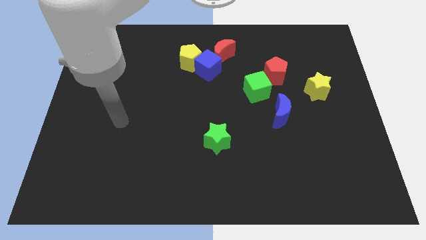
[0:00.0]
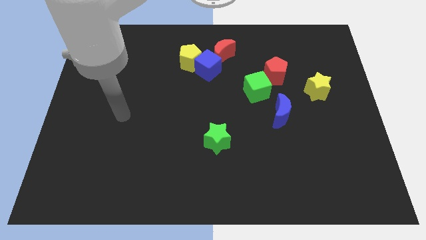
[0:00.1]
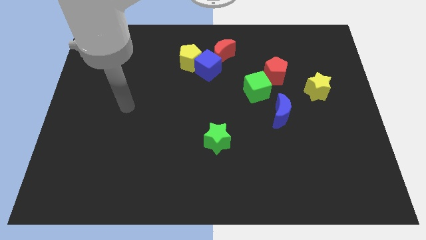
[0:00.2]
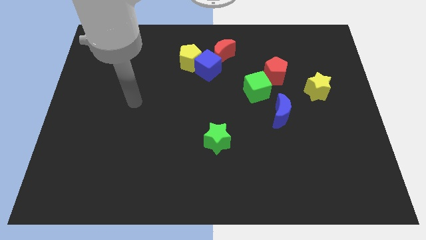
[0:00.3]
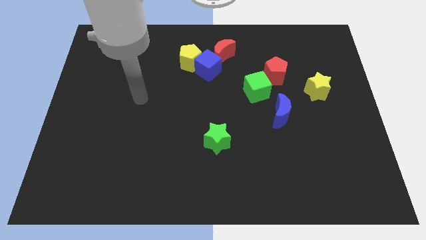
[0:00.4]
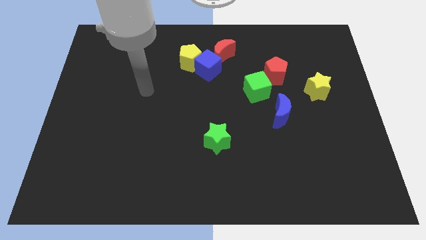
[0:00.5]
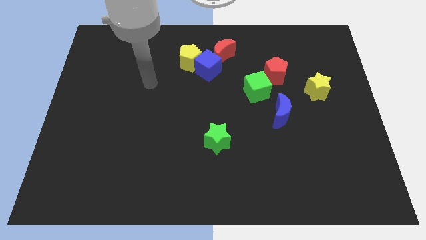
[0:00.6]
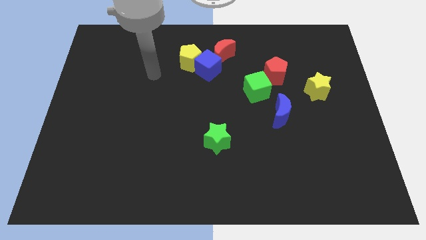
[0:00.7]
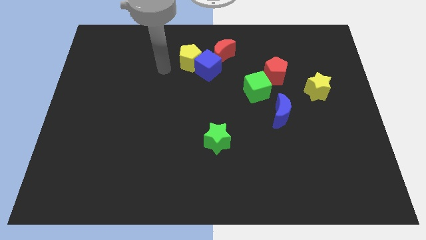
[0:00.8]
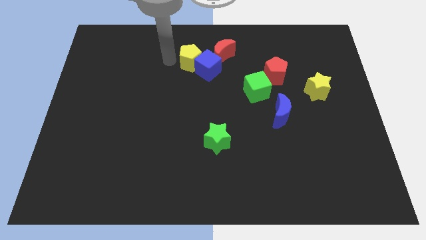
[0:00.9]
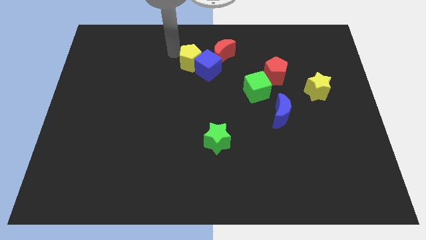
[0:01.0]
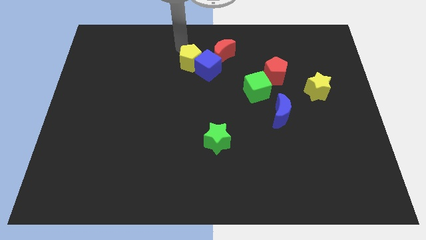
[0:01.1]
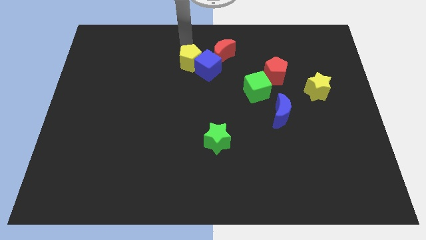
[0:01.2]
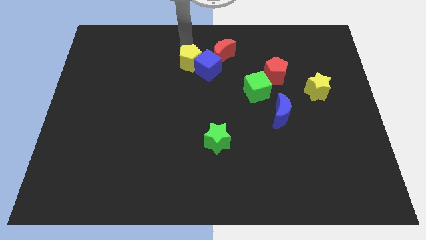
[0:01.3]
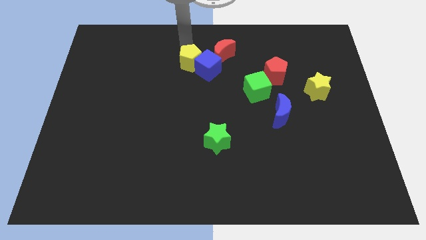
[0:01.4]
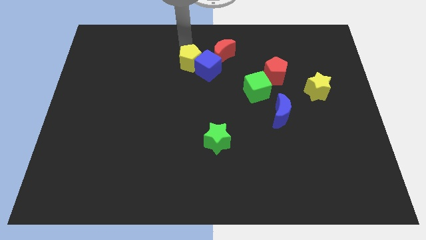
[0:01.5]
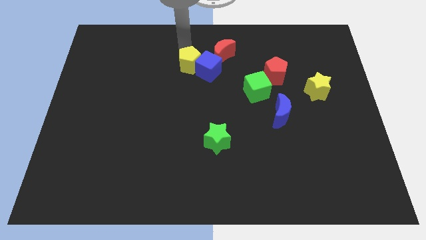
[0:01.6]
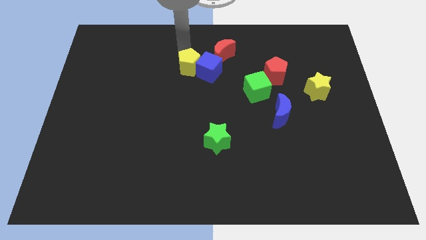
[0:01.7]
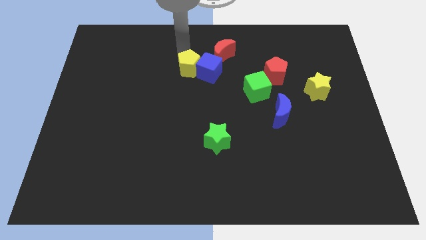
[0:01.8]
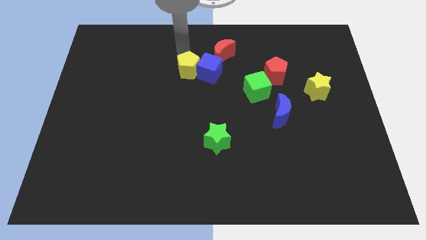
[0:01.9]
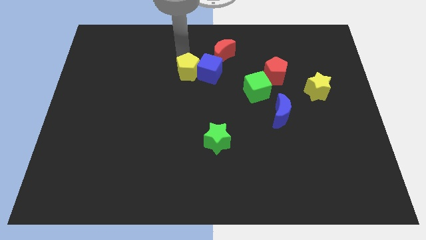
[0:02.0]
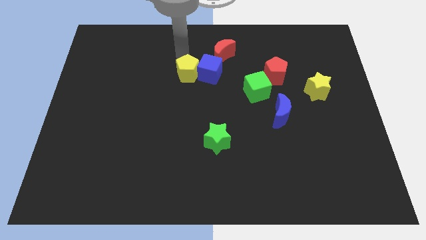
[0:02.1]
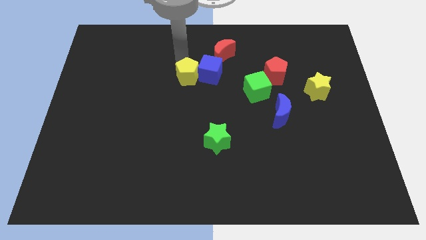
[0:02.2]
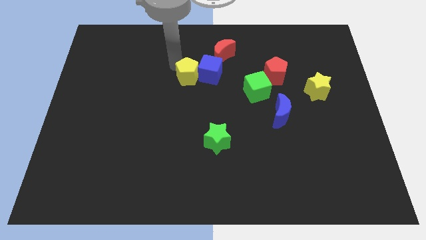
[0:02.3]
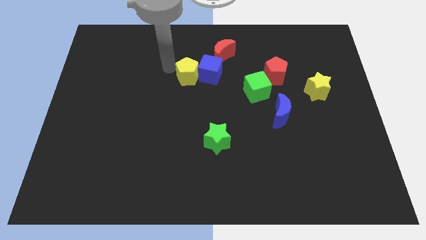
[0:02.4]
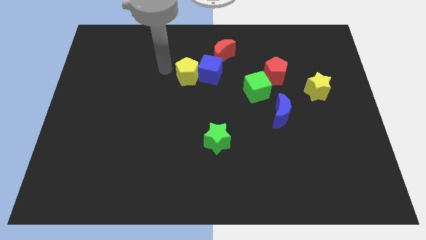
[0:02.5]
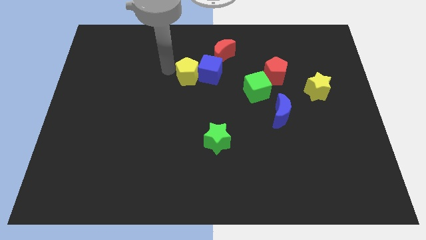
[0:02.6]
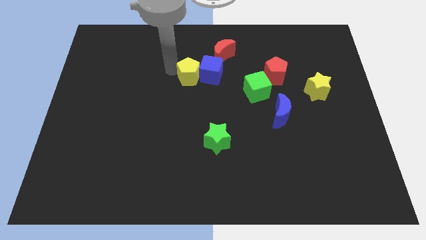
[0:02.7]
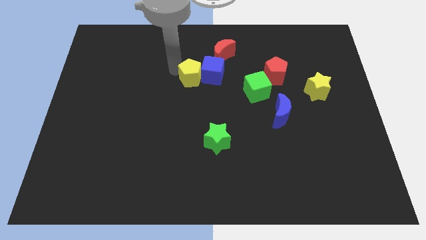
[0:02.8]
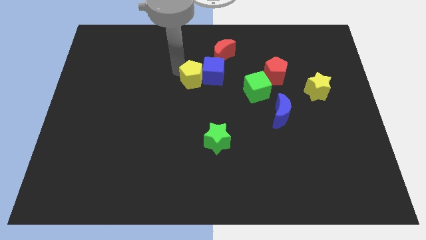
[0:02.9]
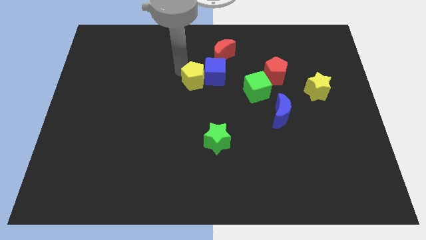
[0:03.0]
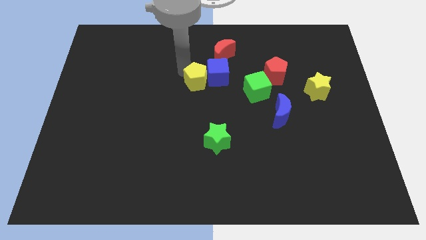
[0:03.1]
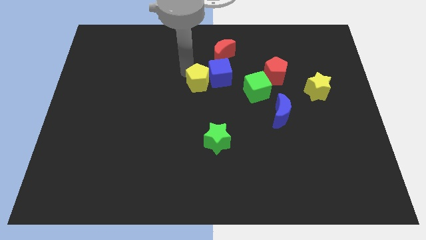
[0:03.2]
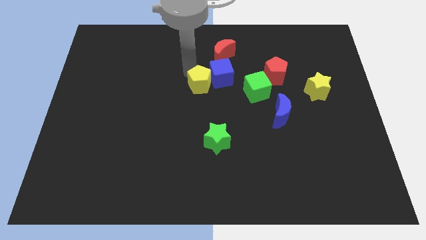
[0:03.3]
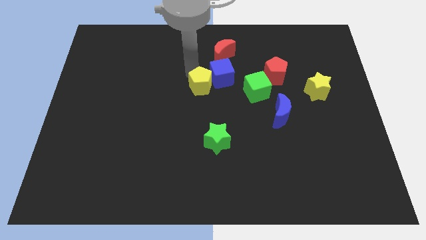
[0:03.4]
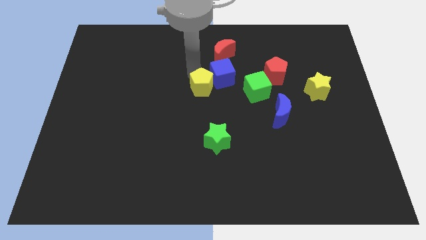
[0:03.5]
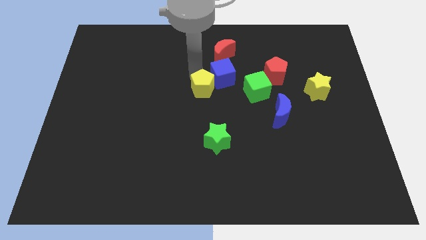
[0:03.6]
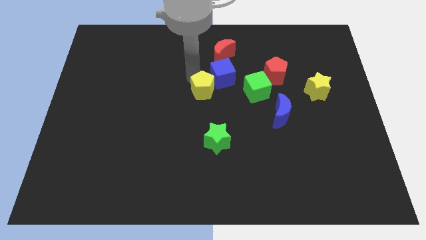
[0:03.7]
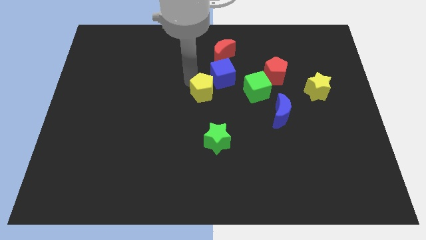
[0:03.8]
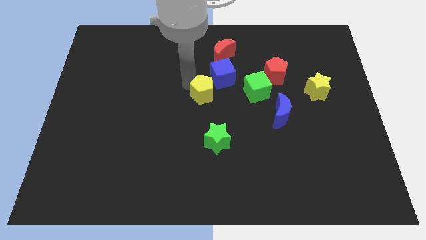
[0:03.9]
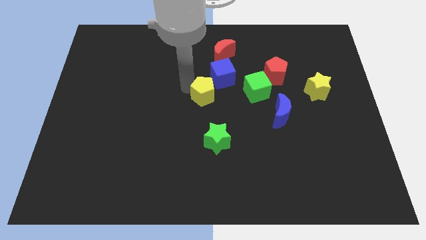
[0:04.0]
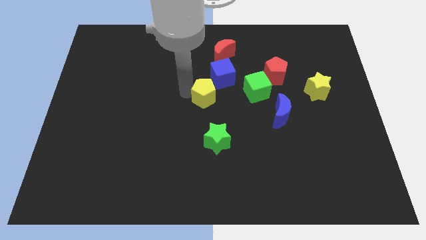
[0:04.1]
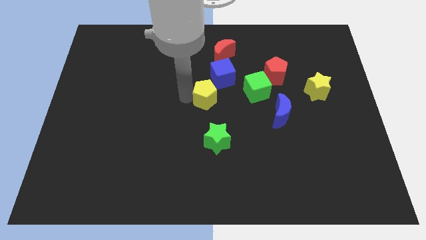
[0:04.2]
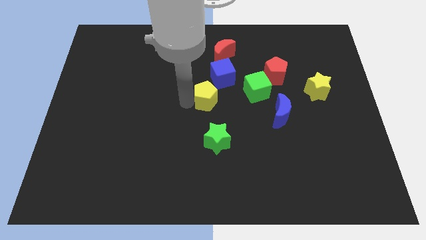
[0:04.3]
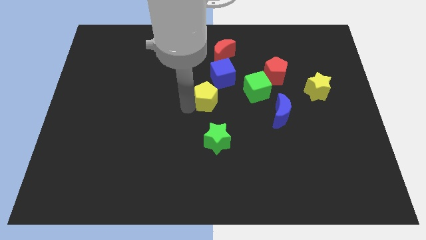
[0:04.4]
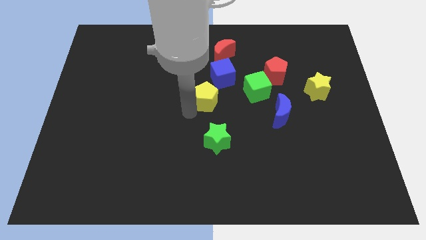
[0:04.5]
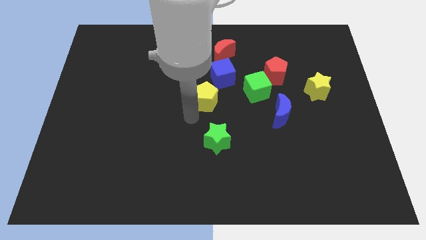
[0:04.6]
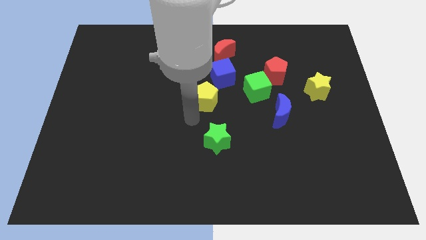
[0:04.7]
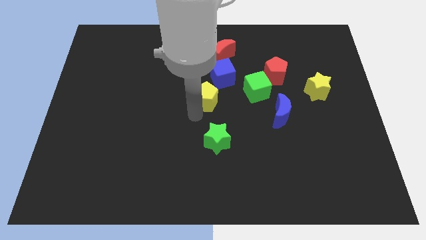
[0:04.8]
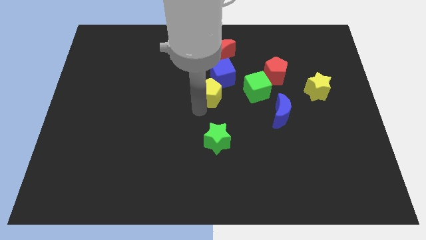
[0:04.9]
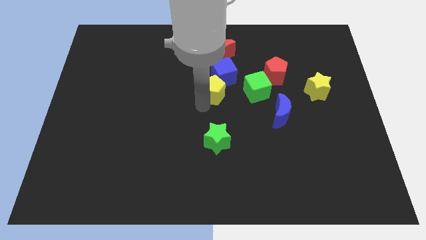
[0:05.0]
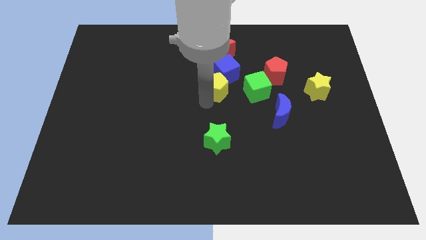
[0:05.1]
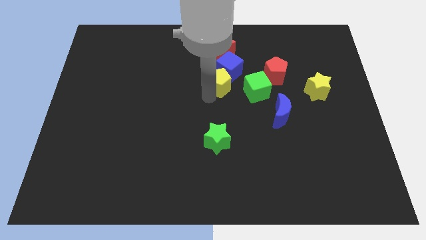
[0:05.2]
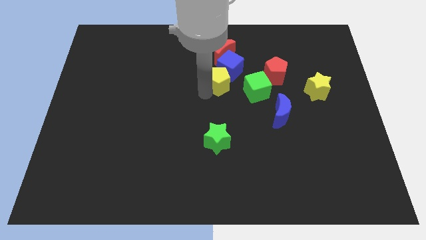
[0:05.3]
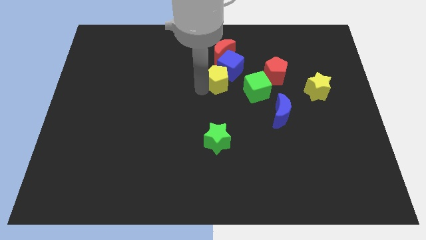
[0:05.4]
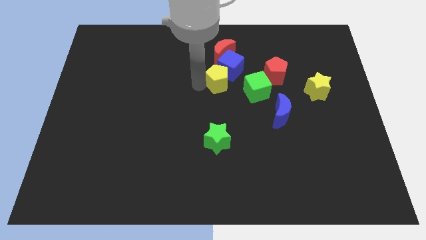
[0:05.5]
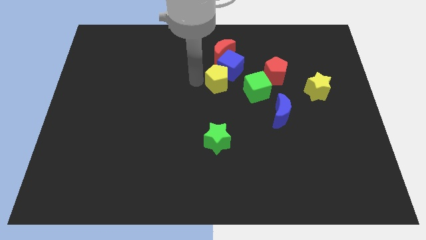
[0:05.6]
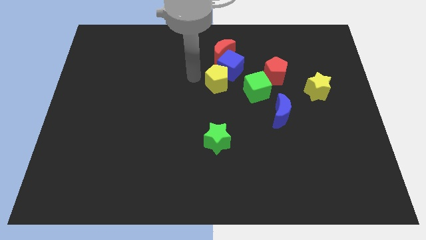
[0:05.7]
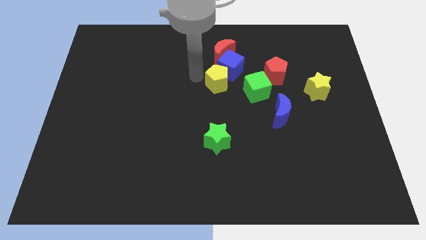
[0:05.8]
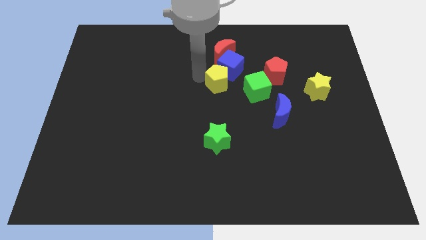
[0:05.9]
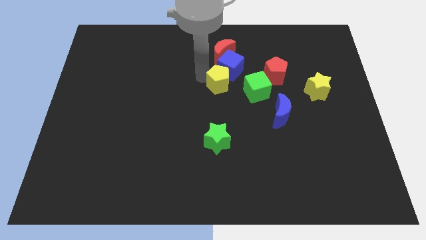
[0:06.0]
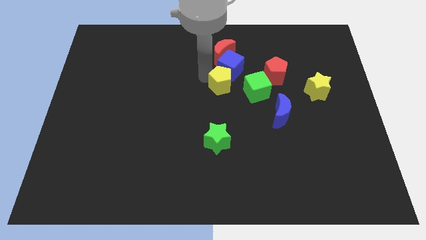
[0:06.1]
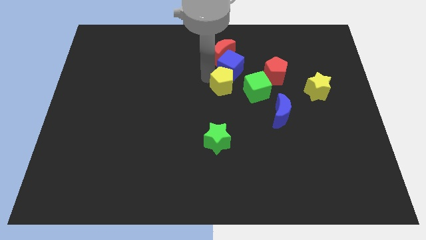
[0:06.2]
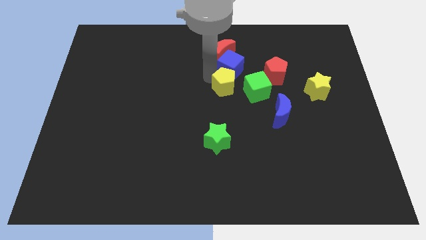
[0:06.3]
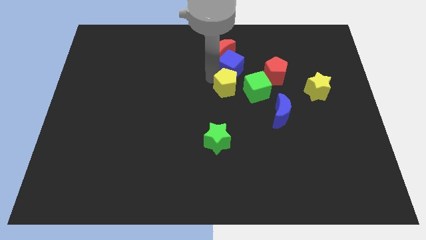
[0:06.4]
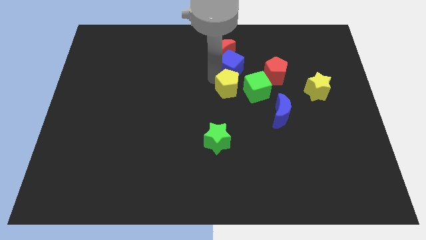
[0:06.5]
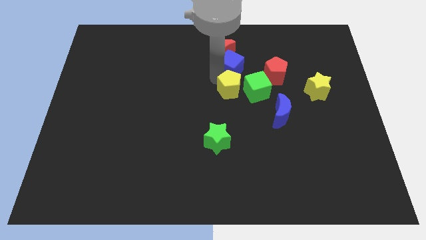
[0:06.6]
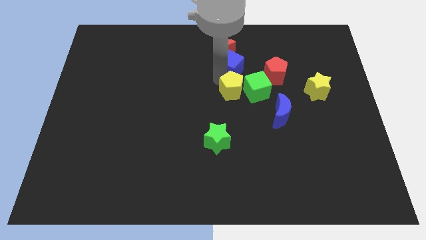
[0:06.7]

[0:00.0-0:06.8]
push the yellow pentagon next to the green cube

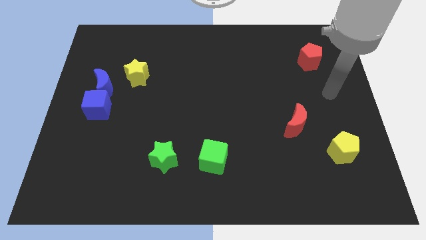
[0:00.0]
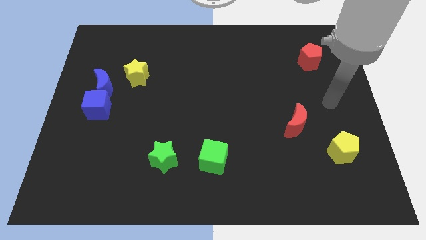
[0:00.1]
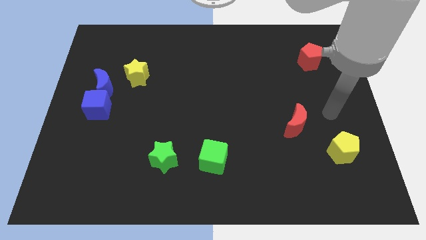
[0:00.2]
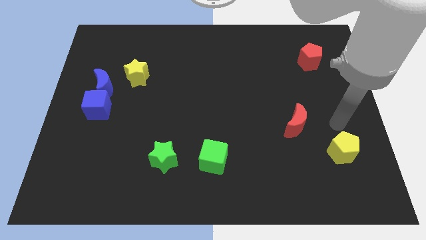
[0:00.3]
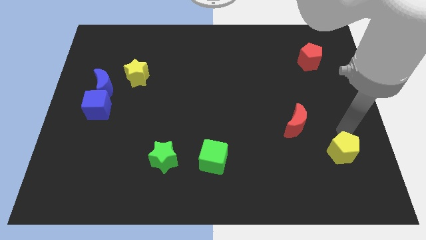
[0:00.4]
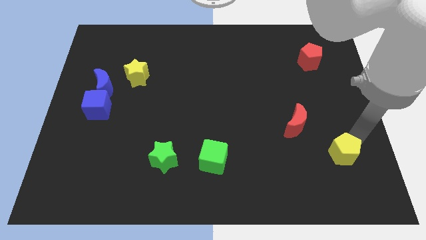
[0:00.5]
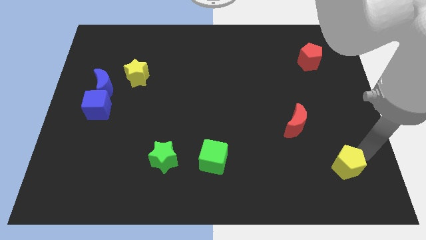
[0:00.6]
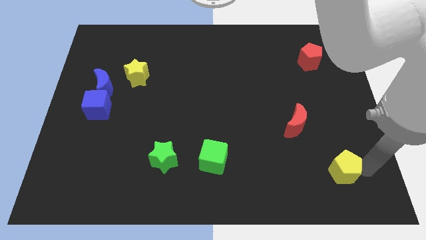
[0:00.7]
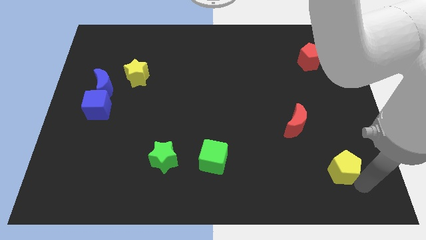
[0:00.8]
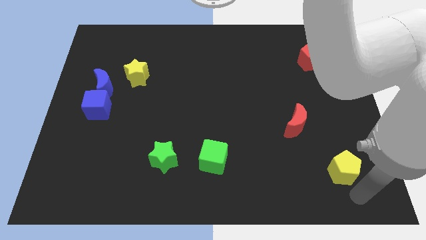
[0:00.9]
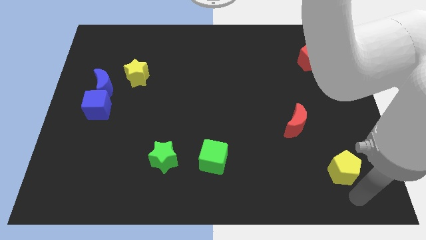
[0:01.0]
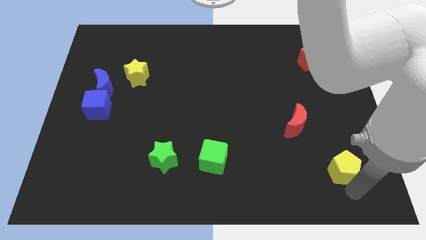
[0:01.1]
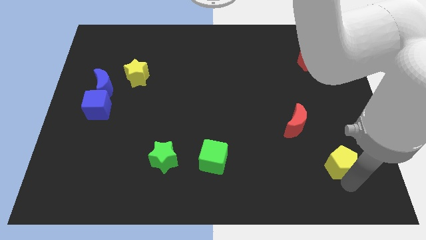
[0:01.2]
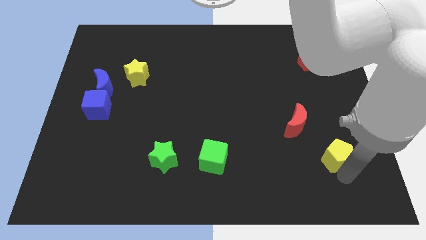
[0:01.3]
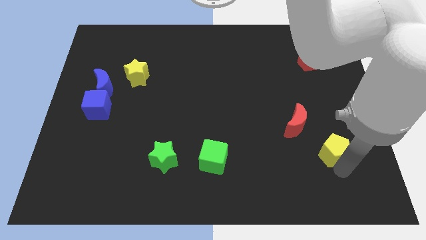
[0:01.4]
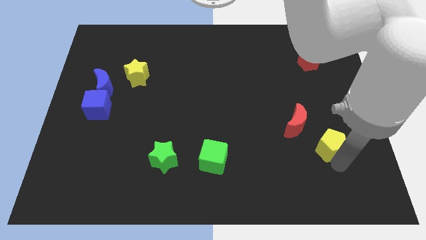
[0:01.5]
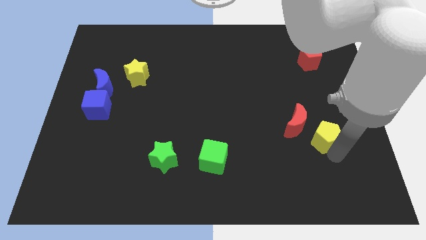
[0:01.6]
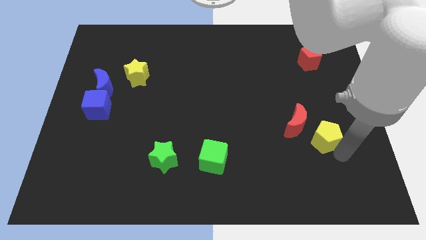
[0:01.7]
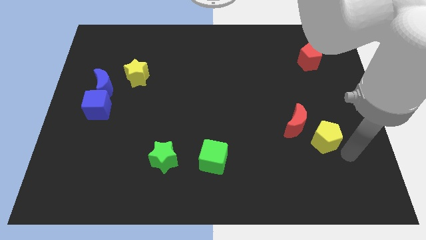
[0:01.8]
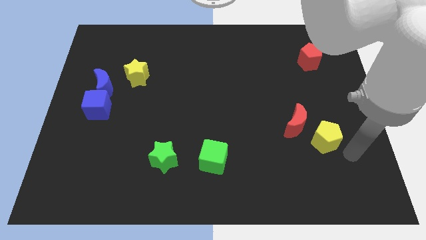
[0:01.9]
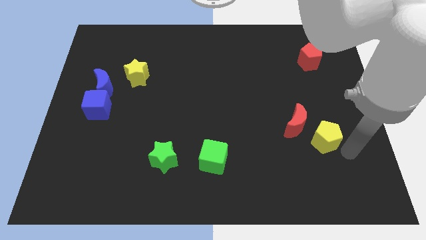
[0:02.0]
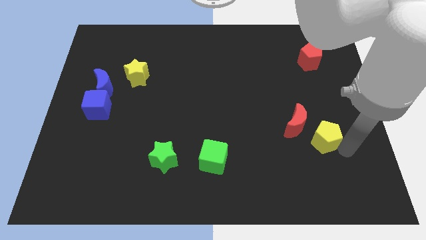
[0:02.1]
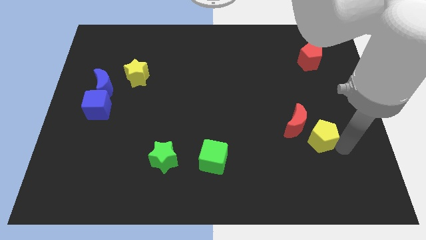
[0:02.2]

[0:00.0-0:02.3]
slide the yellow pentagon to the red moon
